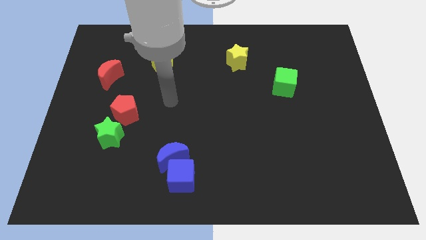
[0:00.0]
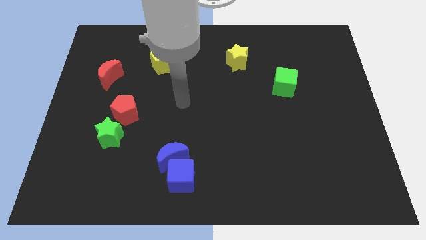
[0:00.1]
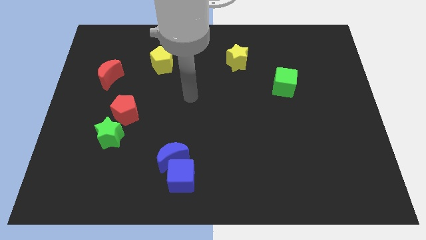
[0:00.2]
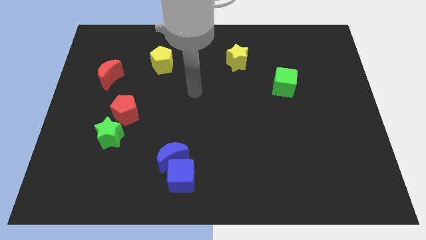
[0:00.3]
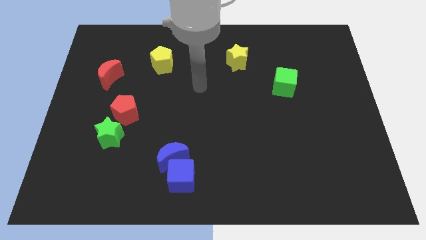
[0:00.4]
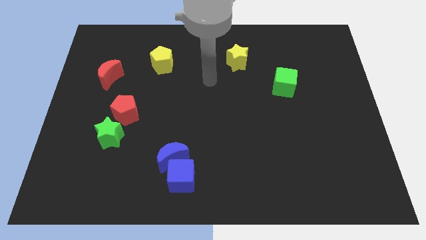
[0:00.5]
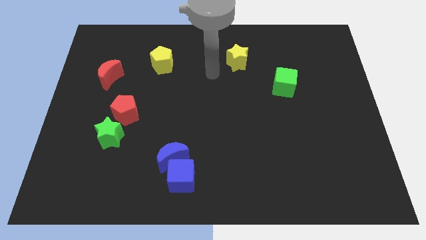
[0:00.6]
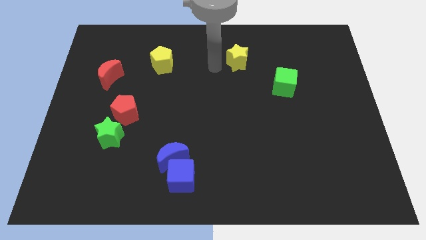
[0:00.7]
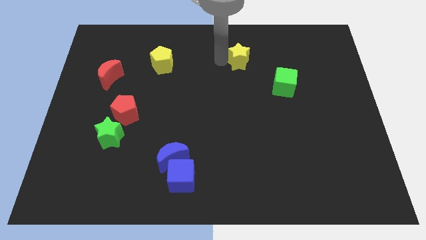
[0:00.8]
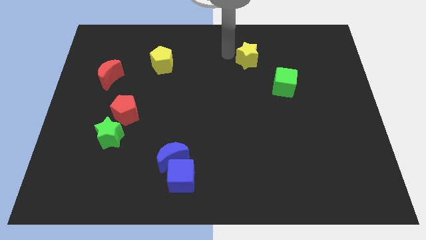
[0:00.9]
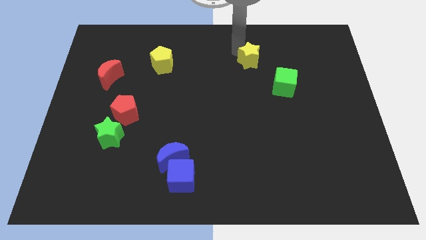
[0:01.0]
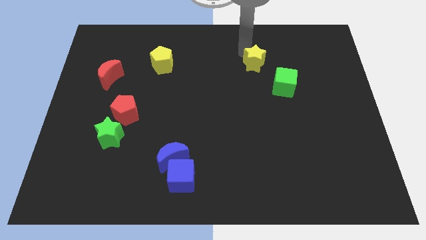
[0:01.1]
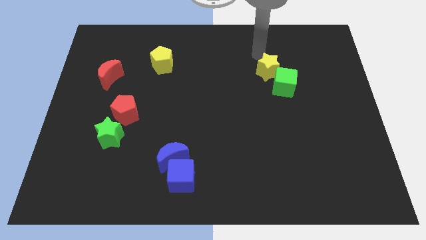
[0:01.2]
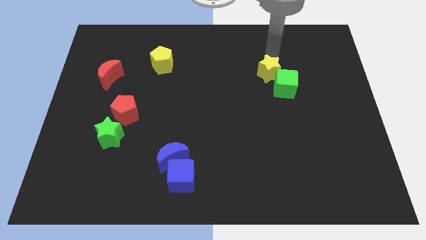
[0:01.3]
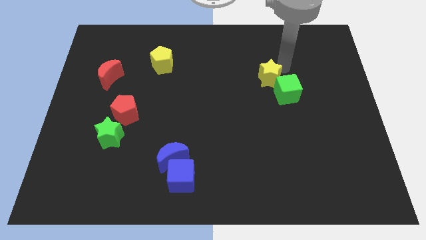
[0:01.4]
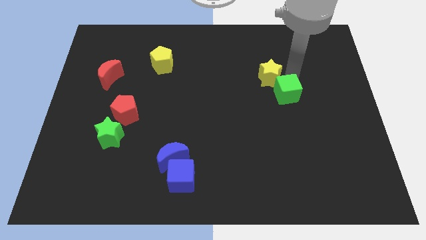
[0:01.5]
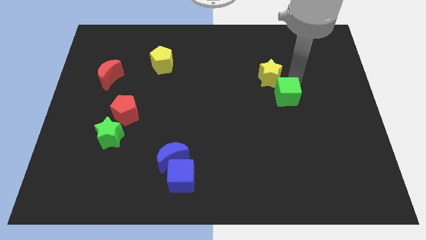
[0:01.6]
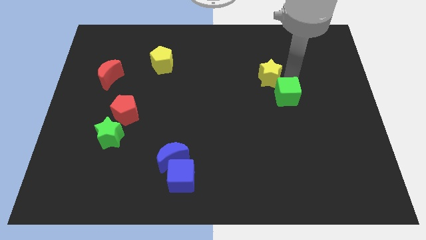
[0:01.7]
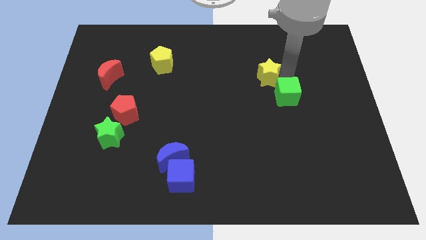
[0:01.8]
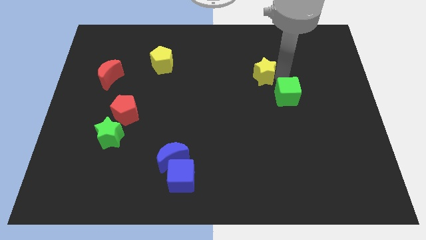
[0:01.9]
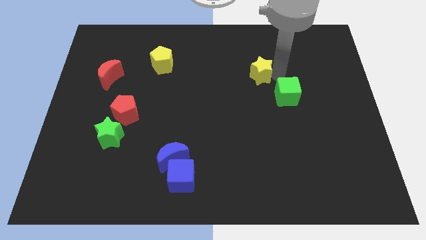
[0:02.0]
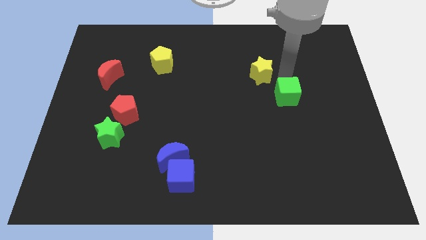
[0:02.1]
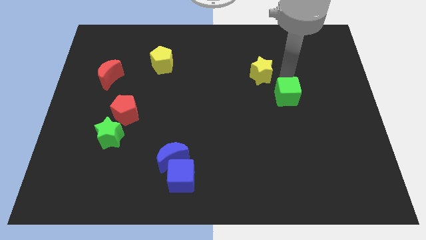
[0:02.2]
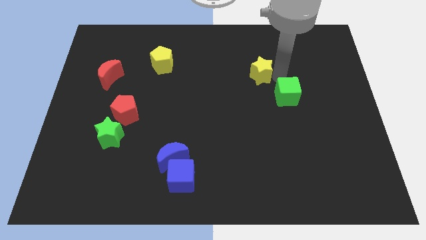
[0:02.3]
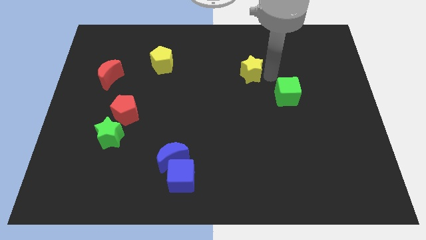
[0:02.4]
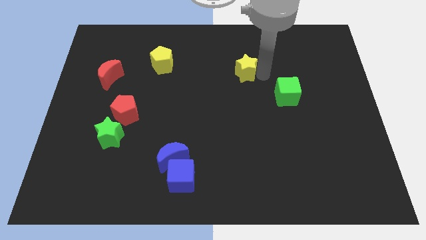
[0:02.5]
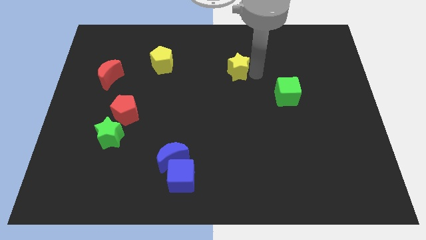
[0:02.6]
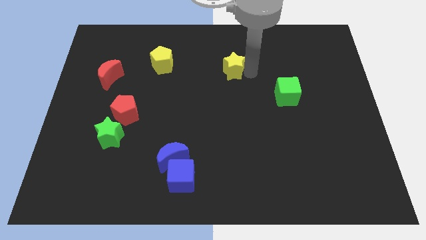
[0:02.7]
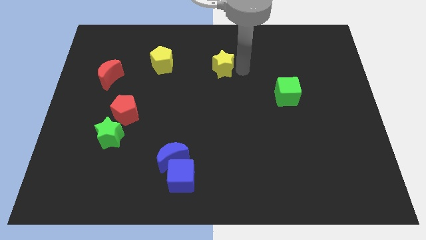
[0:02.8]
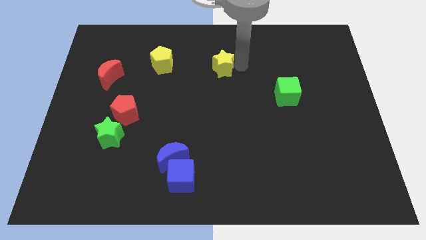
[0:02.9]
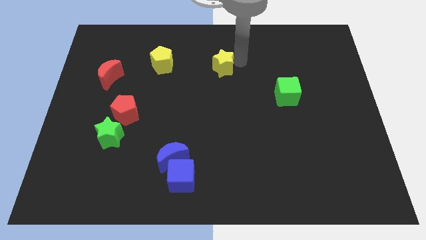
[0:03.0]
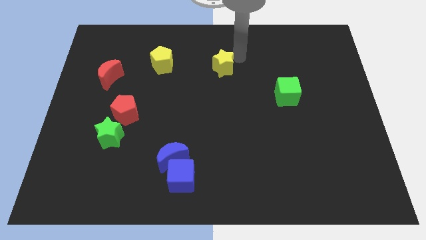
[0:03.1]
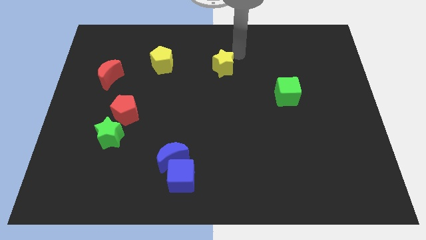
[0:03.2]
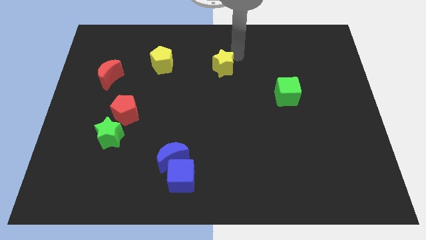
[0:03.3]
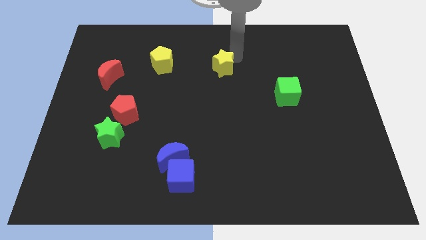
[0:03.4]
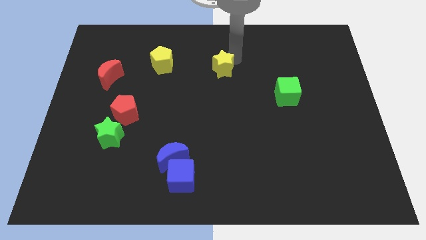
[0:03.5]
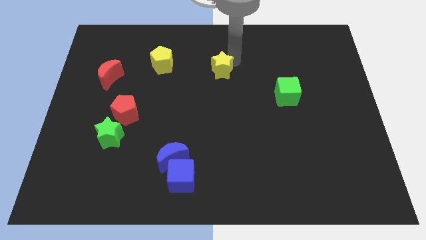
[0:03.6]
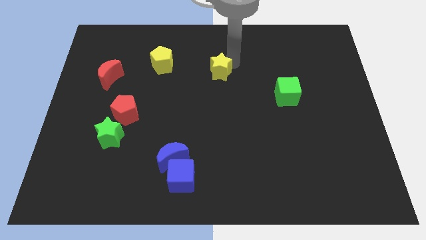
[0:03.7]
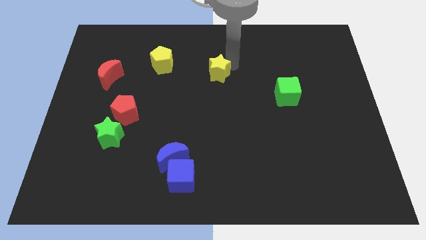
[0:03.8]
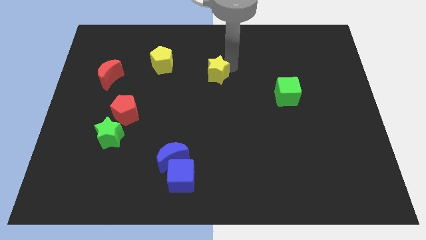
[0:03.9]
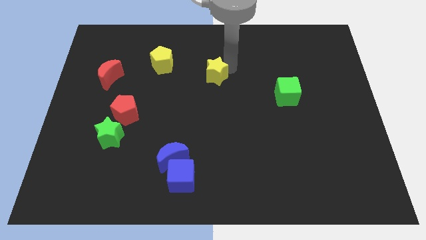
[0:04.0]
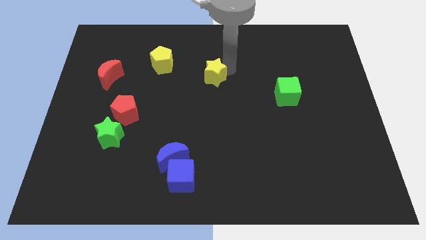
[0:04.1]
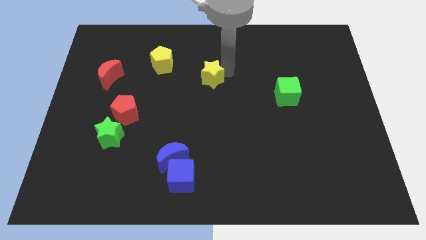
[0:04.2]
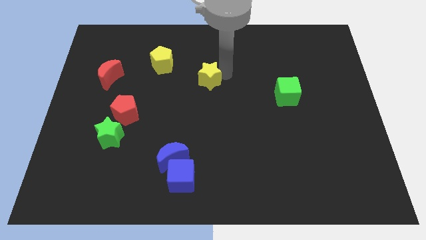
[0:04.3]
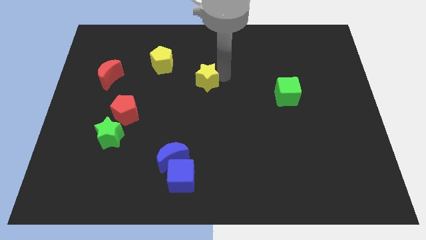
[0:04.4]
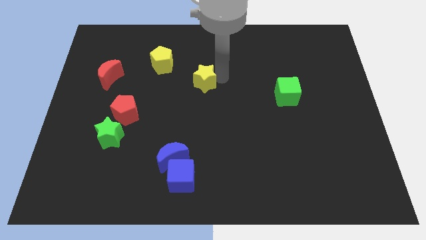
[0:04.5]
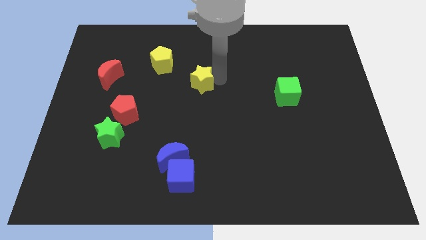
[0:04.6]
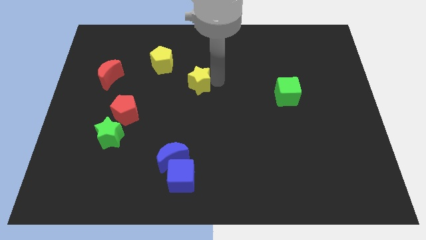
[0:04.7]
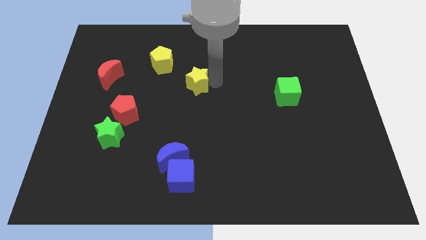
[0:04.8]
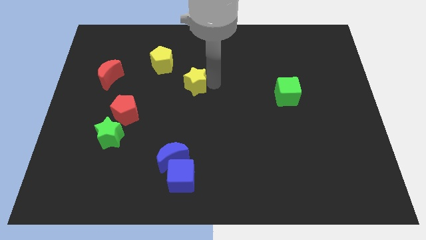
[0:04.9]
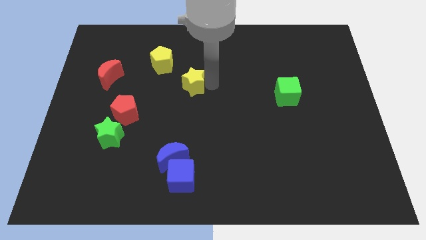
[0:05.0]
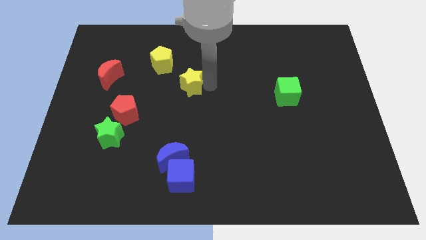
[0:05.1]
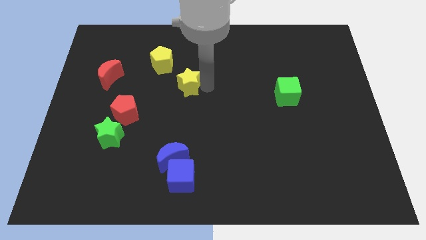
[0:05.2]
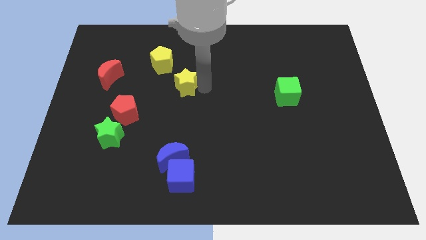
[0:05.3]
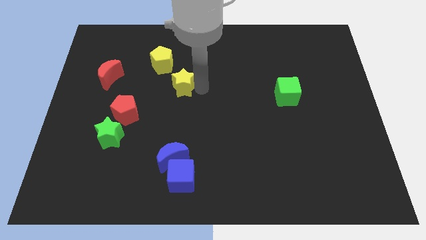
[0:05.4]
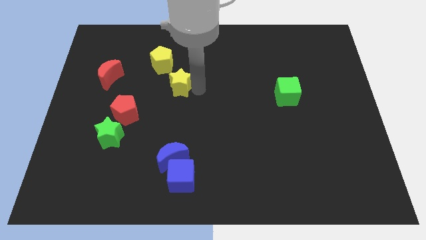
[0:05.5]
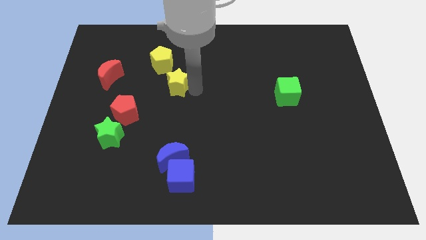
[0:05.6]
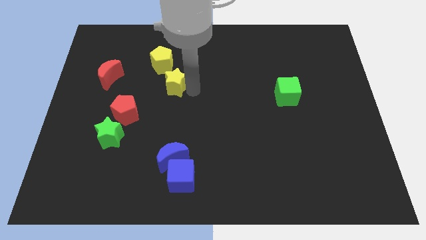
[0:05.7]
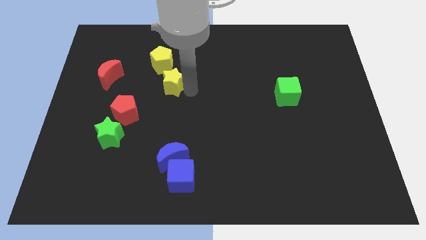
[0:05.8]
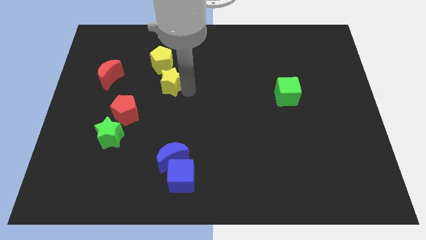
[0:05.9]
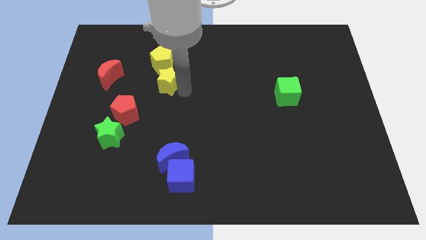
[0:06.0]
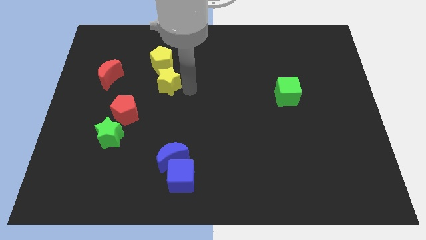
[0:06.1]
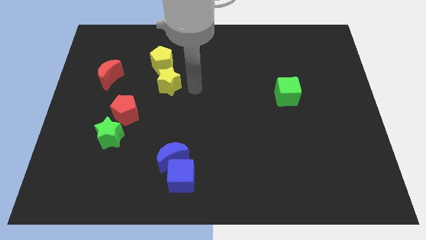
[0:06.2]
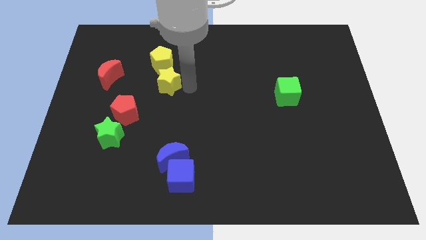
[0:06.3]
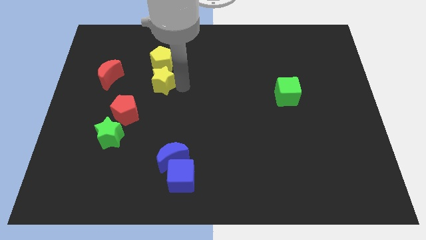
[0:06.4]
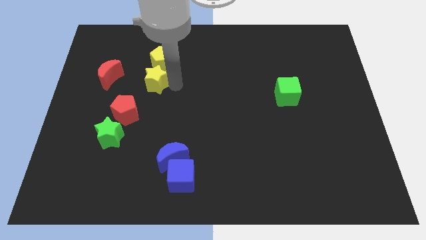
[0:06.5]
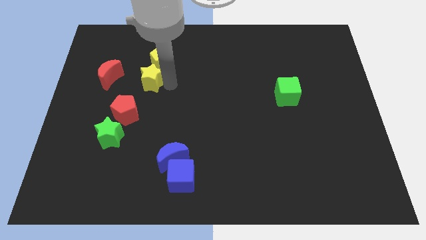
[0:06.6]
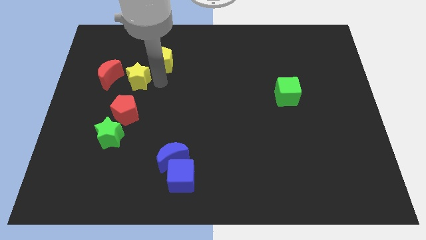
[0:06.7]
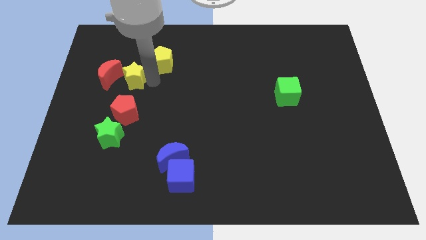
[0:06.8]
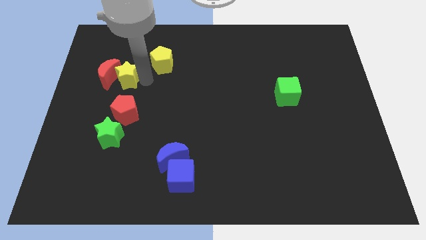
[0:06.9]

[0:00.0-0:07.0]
push the yellow star next to the red moon
